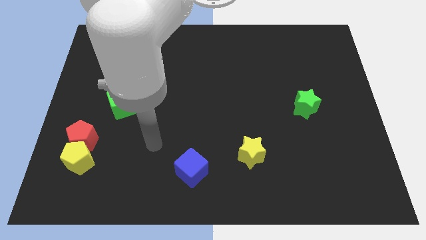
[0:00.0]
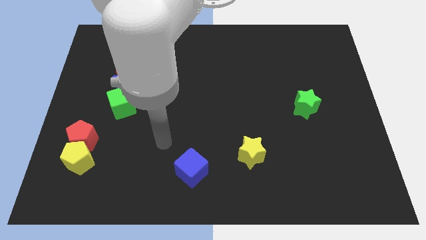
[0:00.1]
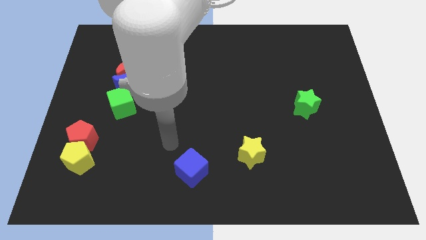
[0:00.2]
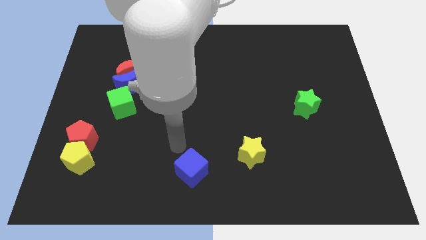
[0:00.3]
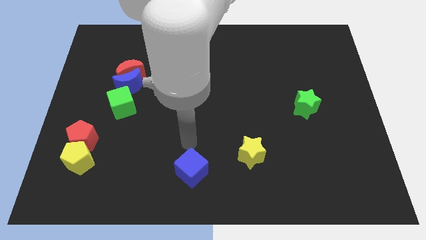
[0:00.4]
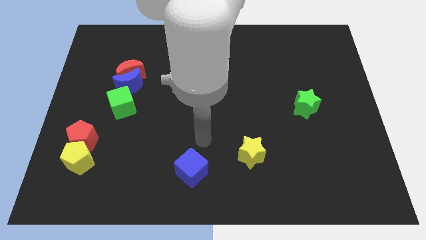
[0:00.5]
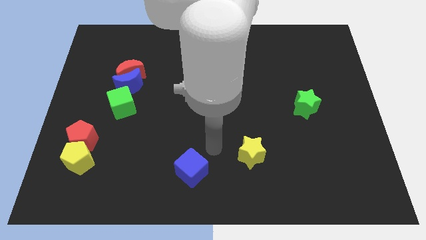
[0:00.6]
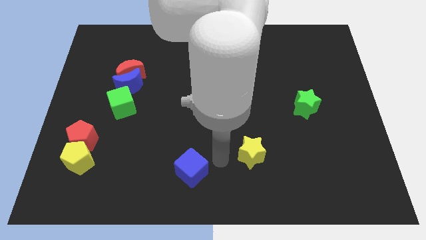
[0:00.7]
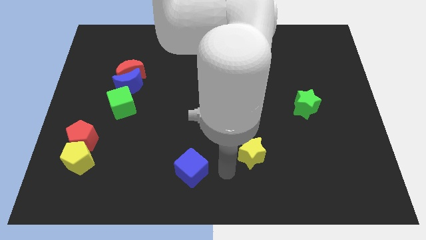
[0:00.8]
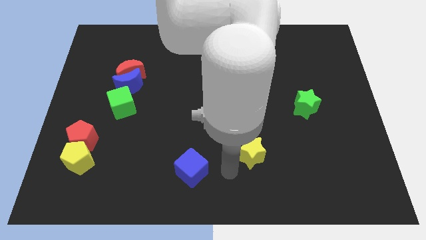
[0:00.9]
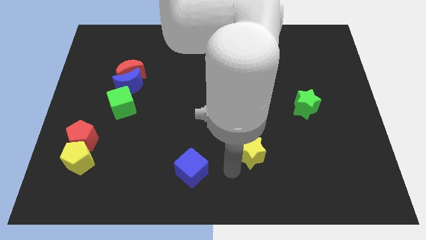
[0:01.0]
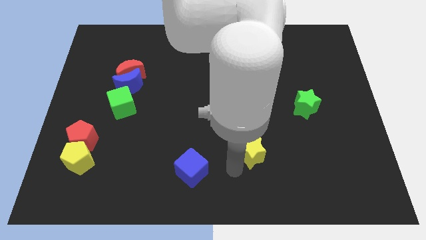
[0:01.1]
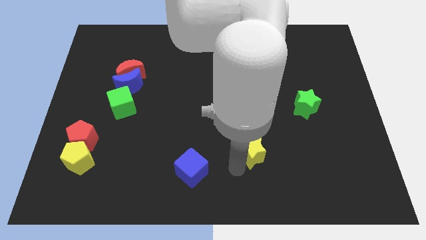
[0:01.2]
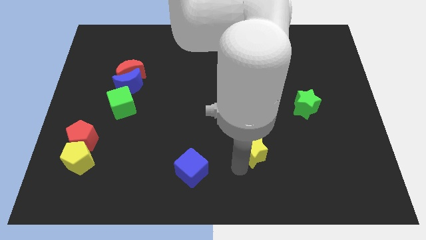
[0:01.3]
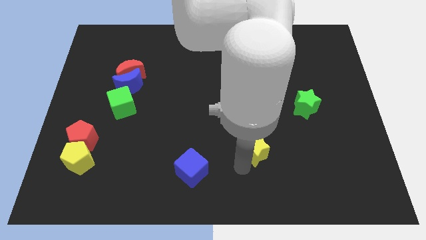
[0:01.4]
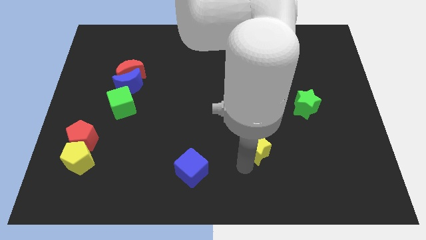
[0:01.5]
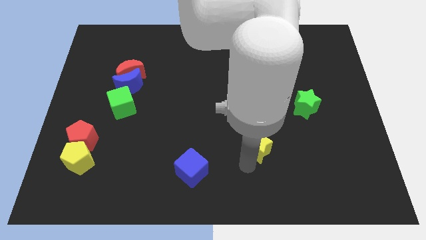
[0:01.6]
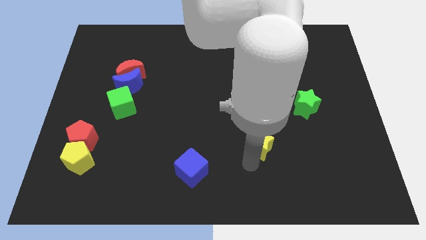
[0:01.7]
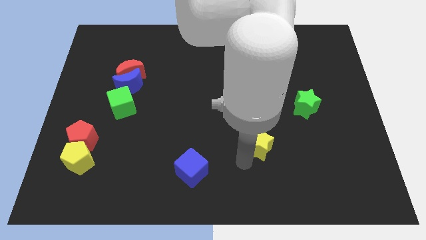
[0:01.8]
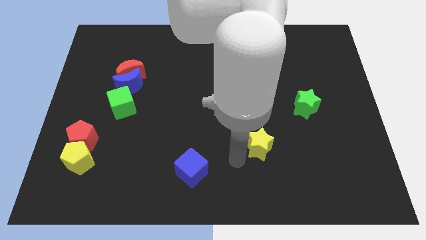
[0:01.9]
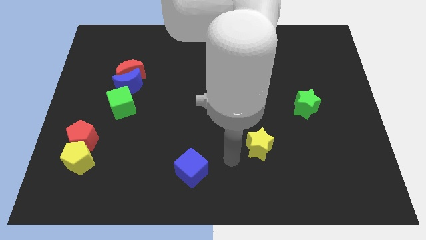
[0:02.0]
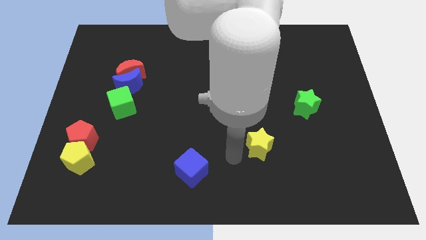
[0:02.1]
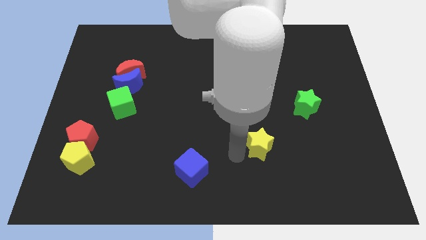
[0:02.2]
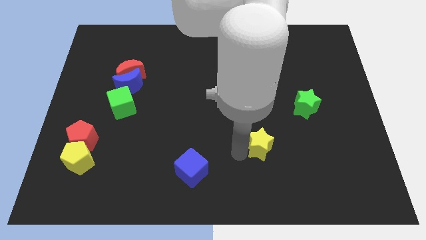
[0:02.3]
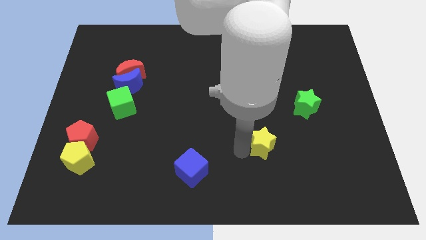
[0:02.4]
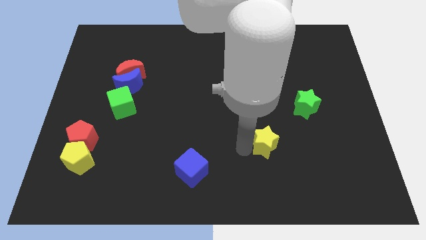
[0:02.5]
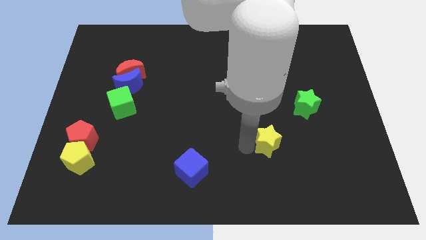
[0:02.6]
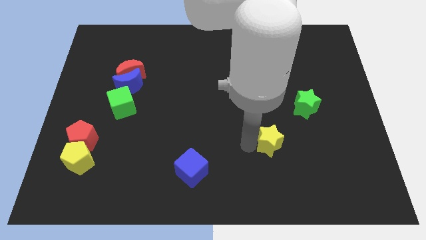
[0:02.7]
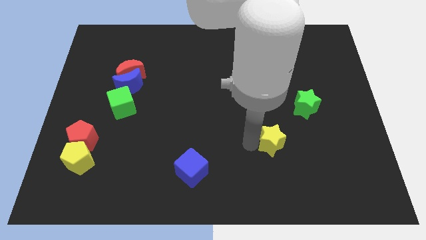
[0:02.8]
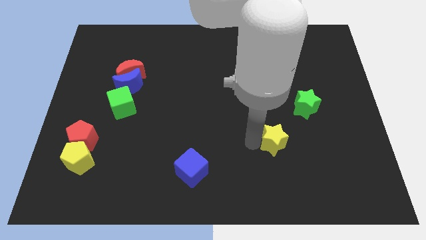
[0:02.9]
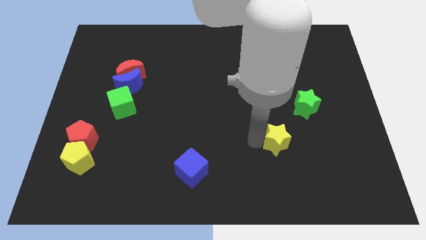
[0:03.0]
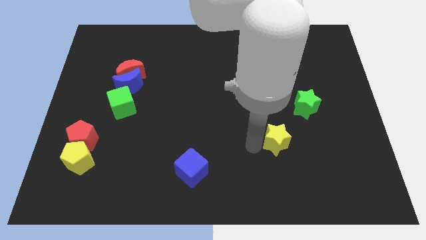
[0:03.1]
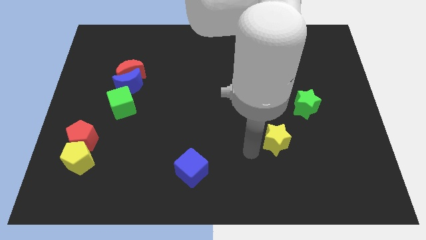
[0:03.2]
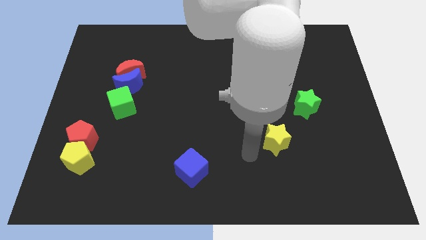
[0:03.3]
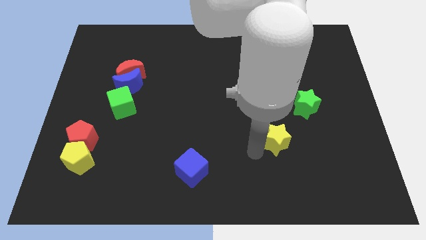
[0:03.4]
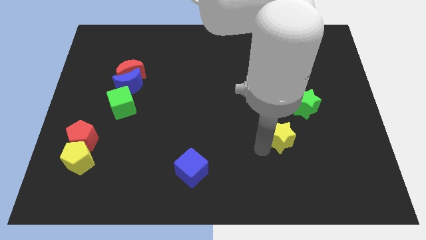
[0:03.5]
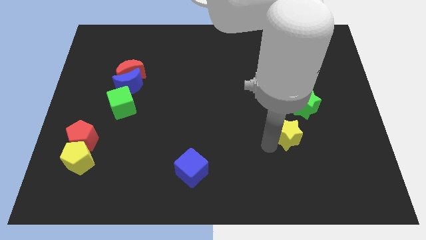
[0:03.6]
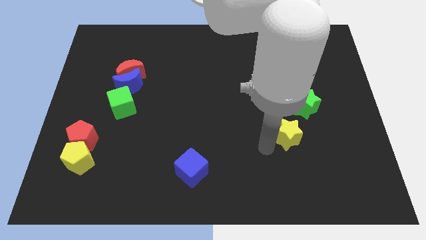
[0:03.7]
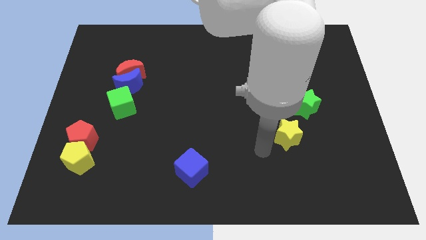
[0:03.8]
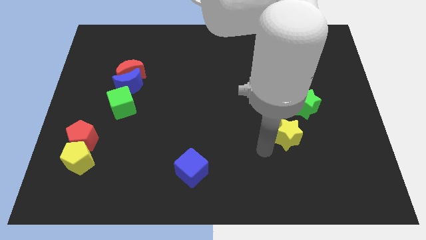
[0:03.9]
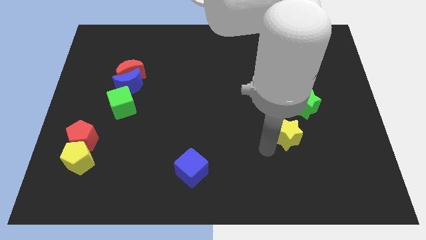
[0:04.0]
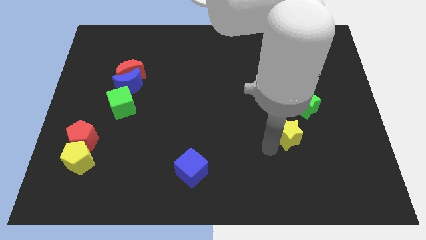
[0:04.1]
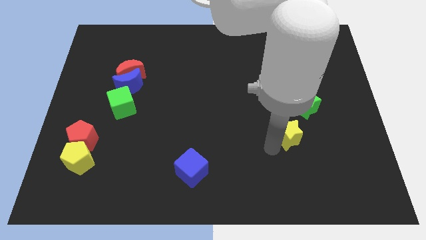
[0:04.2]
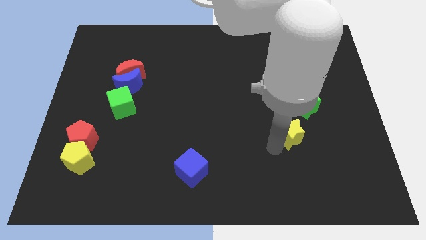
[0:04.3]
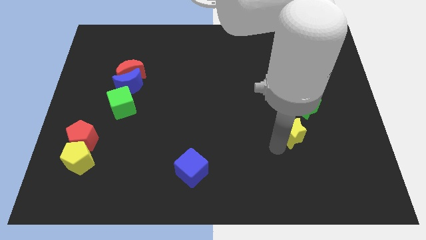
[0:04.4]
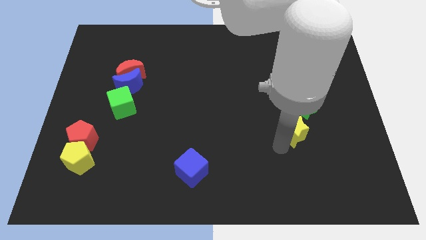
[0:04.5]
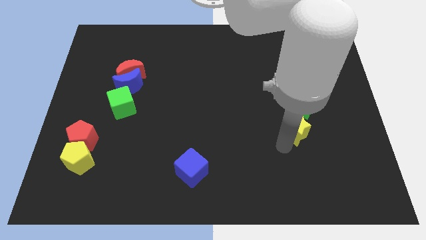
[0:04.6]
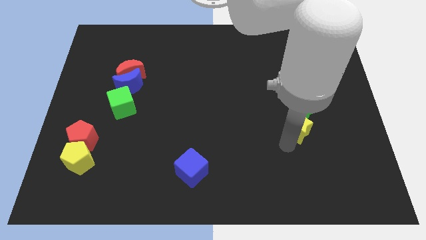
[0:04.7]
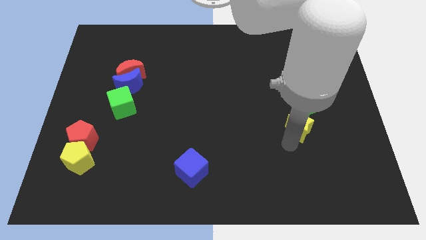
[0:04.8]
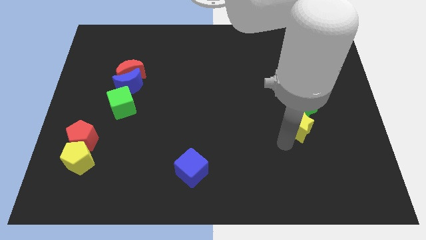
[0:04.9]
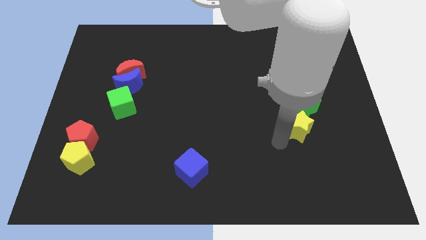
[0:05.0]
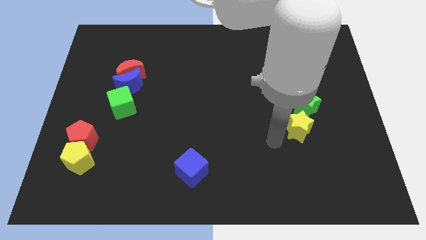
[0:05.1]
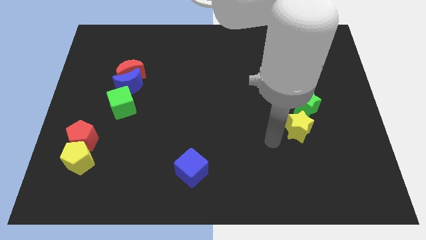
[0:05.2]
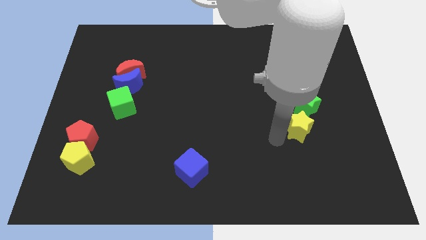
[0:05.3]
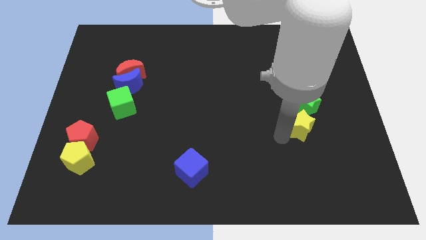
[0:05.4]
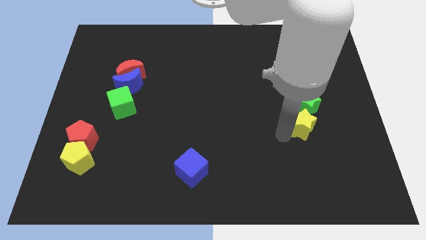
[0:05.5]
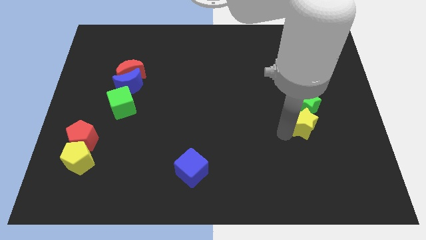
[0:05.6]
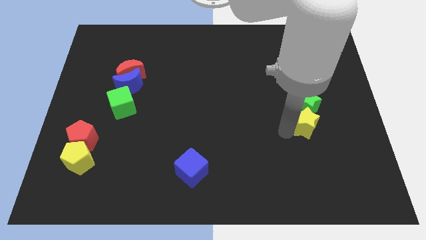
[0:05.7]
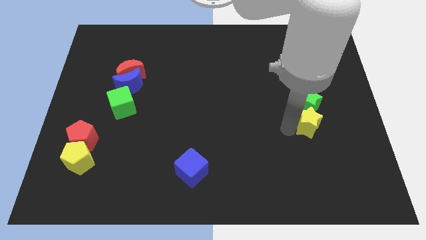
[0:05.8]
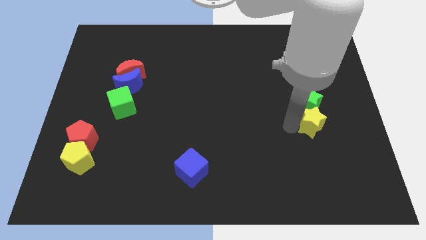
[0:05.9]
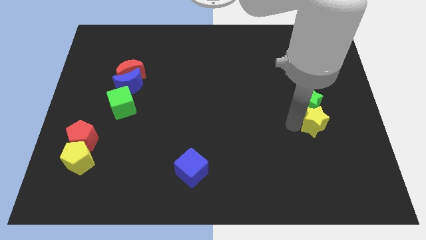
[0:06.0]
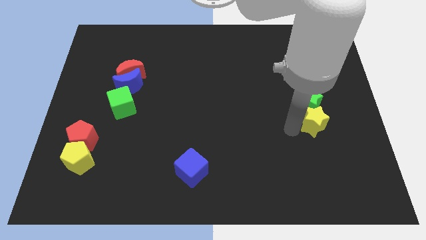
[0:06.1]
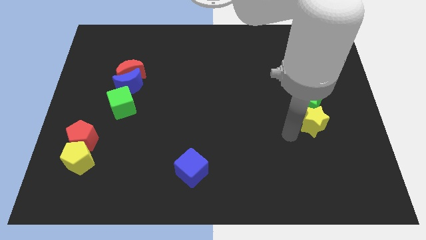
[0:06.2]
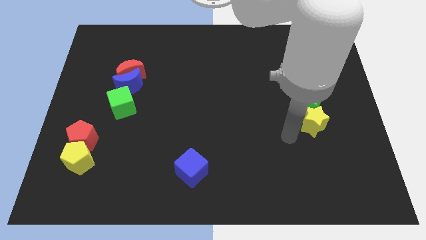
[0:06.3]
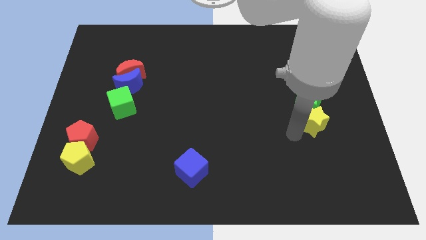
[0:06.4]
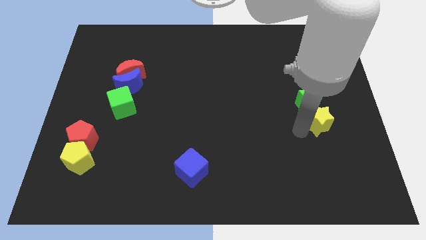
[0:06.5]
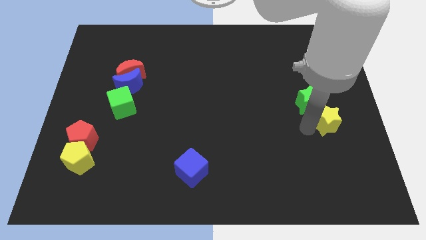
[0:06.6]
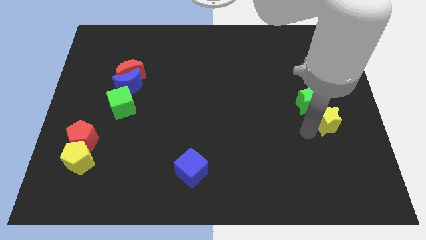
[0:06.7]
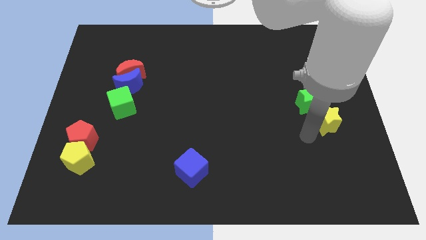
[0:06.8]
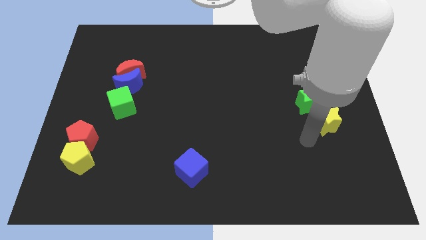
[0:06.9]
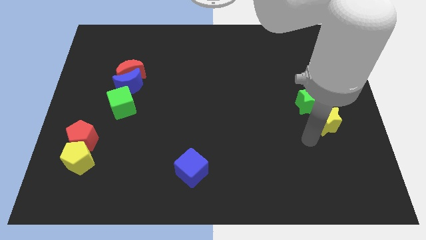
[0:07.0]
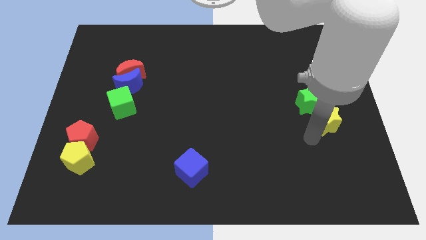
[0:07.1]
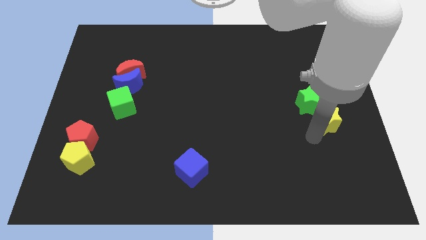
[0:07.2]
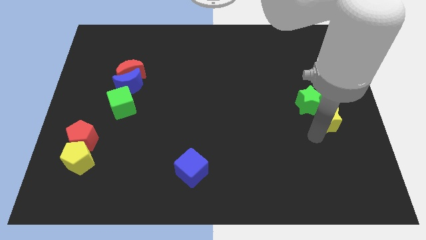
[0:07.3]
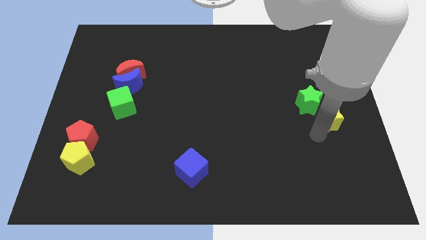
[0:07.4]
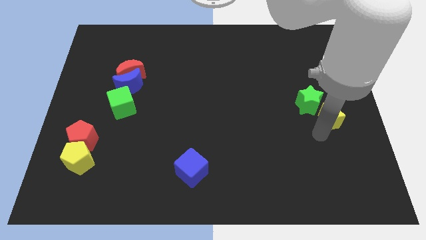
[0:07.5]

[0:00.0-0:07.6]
push the yellow star to the right side of the board
